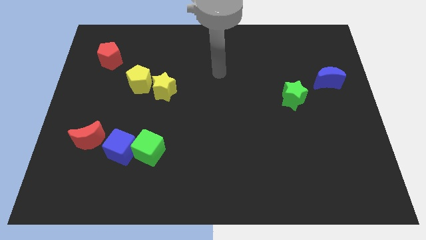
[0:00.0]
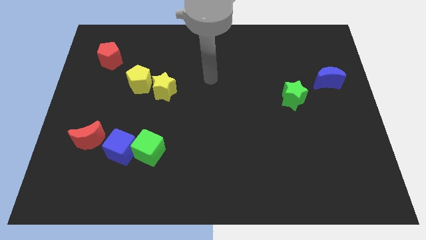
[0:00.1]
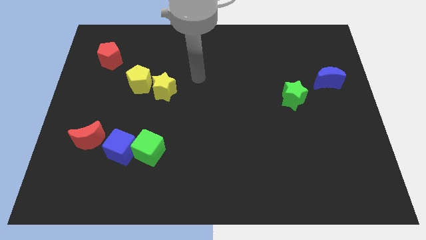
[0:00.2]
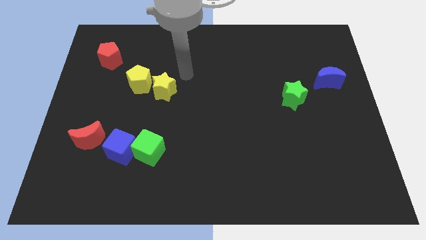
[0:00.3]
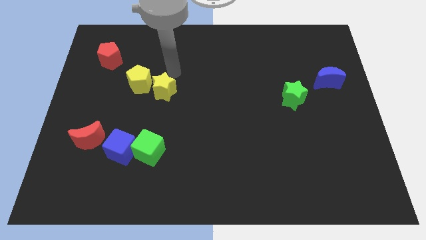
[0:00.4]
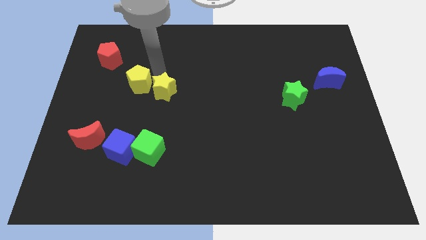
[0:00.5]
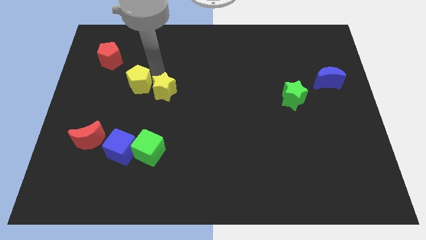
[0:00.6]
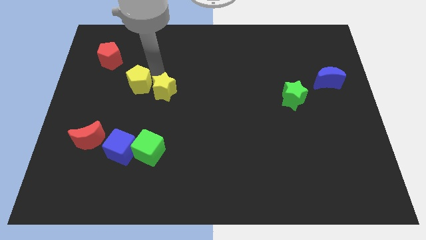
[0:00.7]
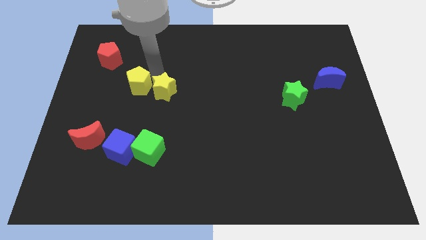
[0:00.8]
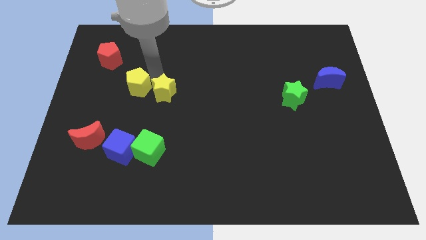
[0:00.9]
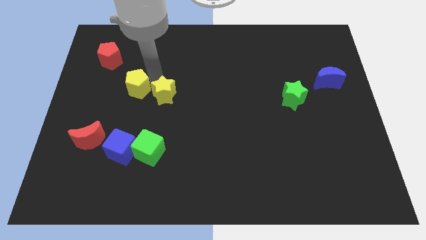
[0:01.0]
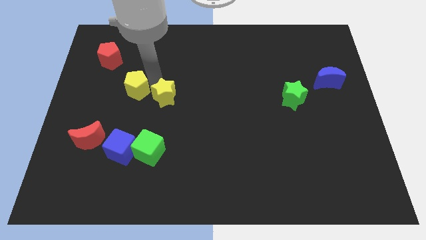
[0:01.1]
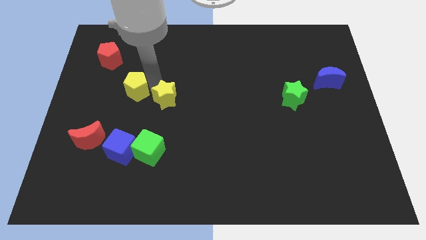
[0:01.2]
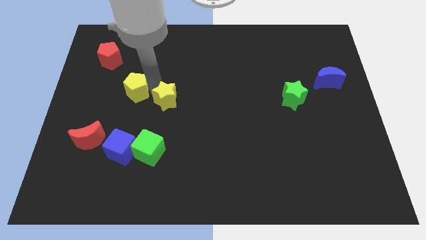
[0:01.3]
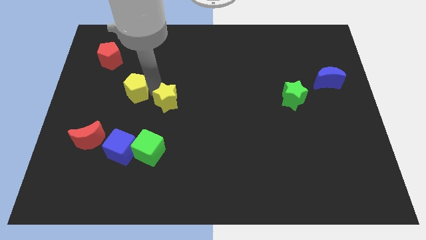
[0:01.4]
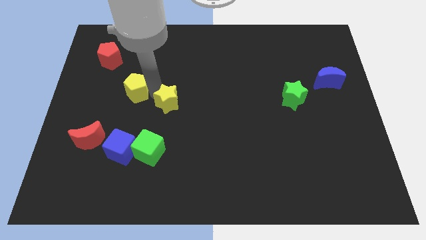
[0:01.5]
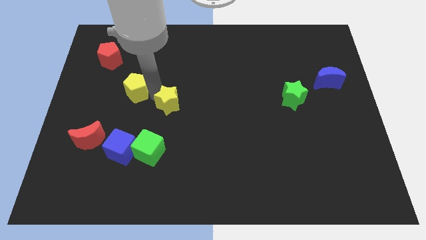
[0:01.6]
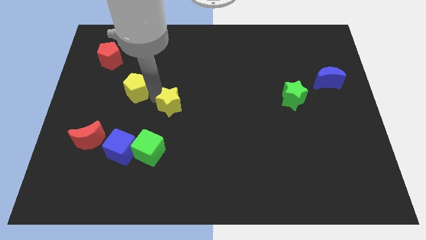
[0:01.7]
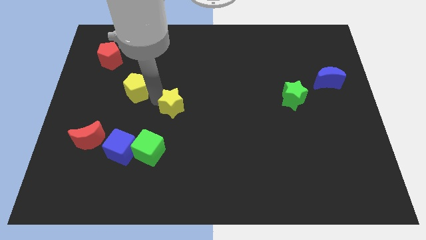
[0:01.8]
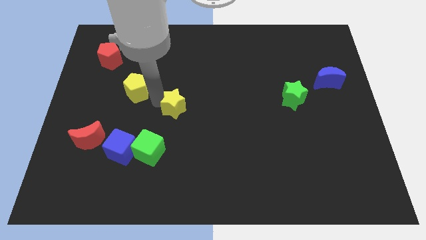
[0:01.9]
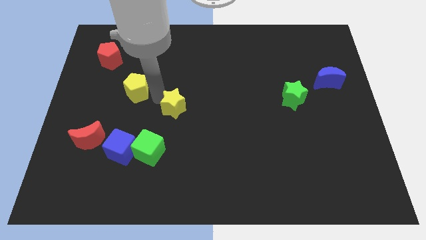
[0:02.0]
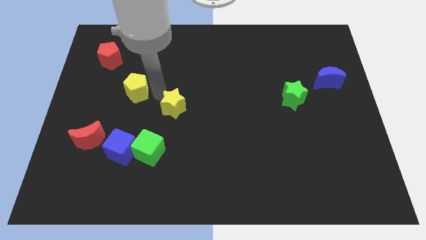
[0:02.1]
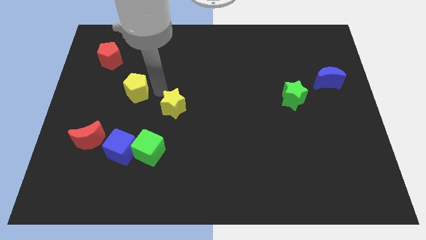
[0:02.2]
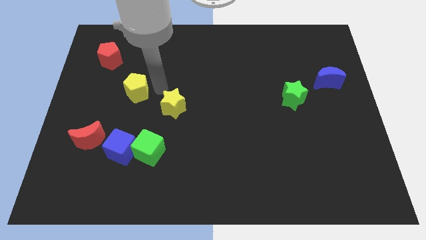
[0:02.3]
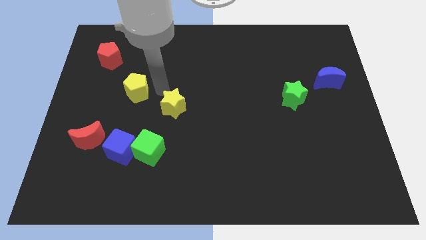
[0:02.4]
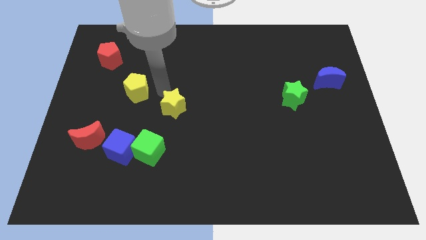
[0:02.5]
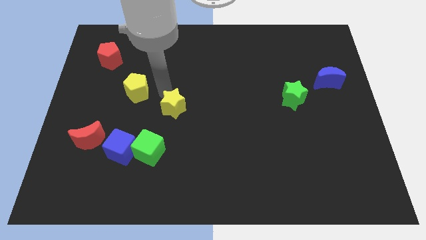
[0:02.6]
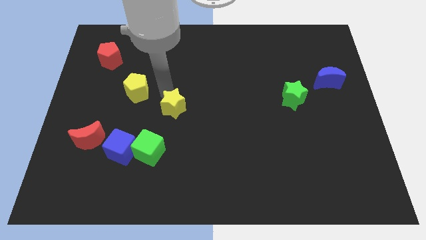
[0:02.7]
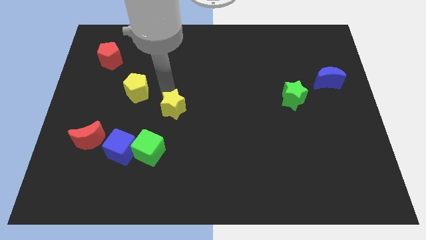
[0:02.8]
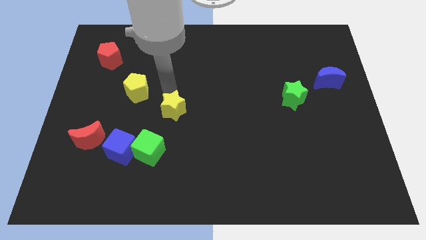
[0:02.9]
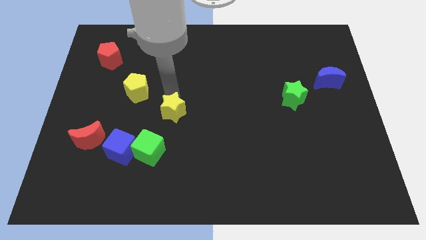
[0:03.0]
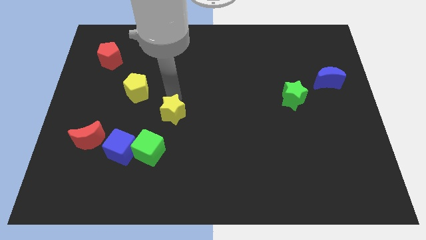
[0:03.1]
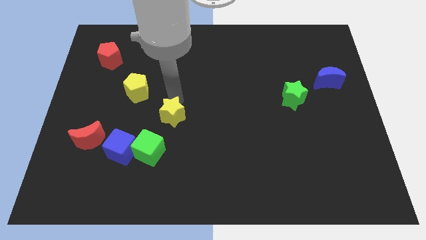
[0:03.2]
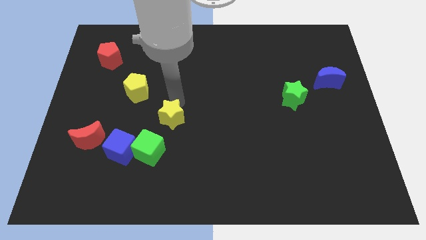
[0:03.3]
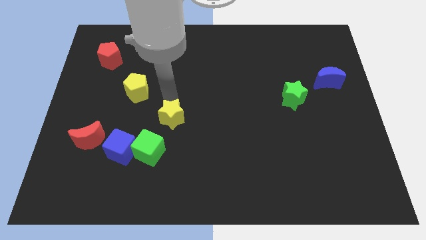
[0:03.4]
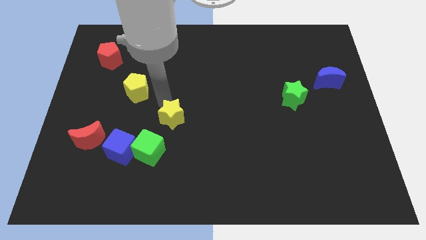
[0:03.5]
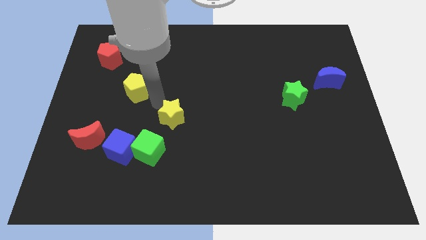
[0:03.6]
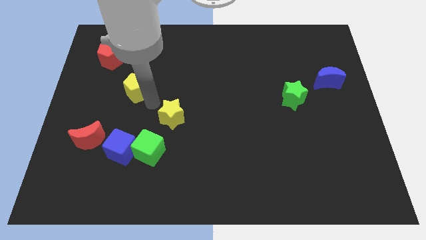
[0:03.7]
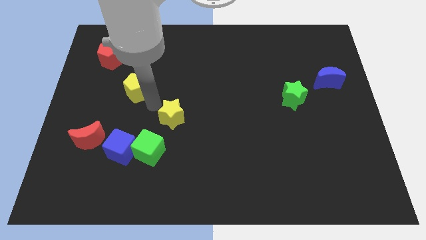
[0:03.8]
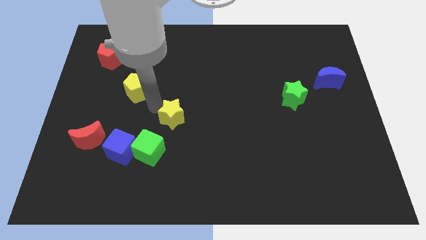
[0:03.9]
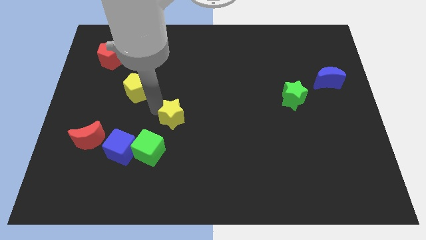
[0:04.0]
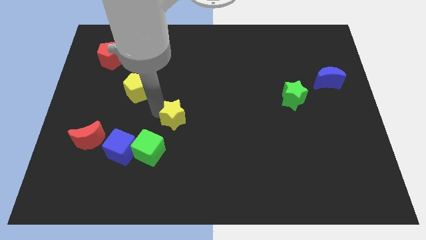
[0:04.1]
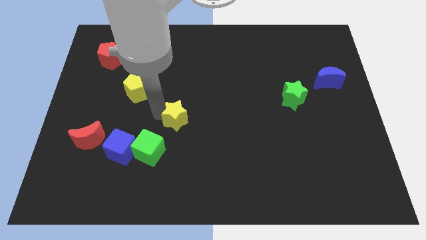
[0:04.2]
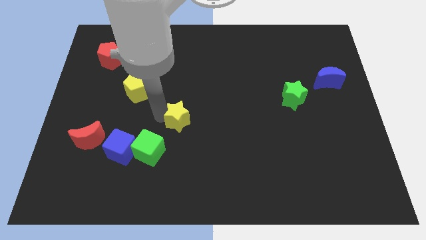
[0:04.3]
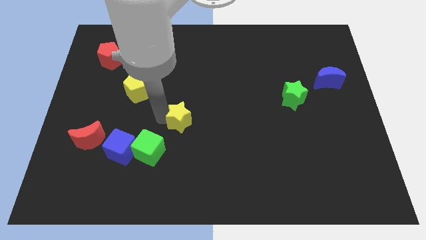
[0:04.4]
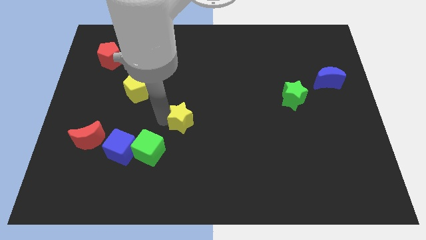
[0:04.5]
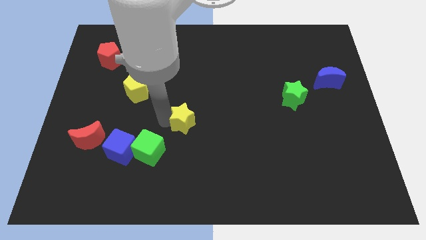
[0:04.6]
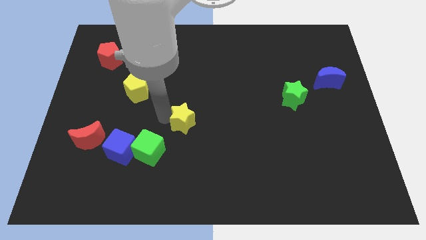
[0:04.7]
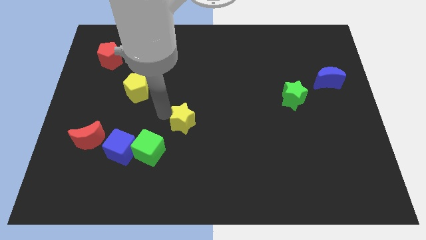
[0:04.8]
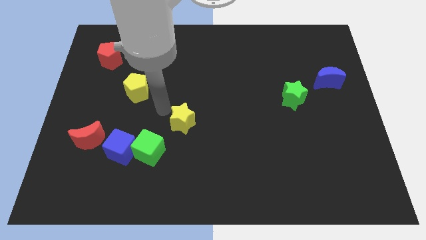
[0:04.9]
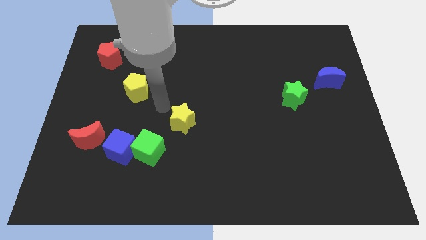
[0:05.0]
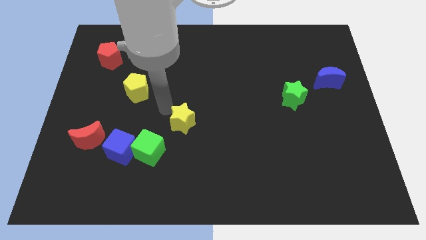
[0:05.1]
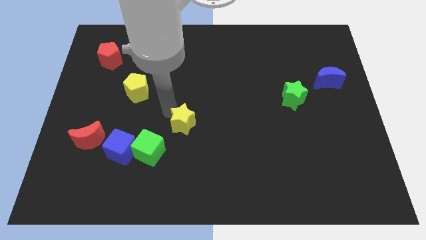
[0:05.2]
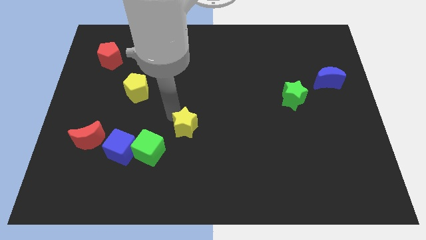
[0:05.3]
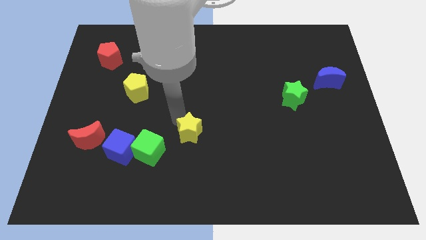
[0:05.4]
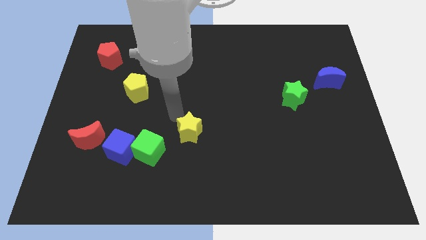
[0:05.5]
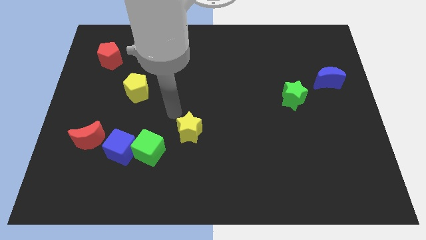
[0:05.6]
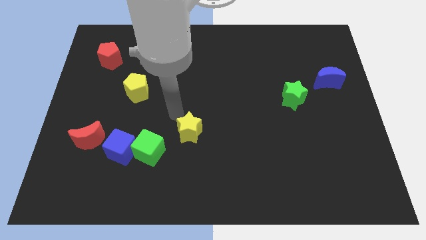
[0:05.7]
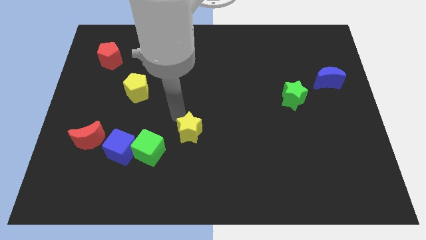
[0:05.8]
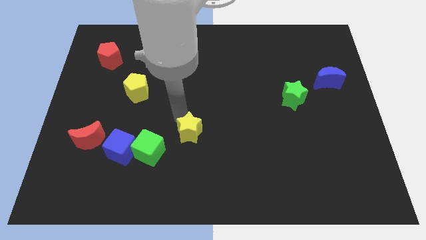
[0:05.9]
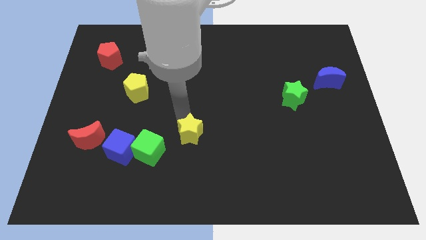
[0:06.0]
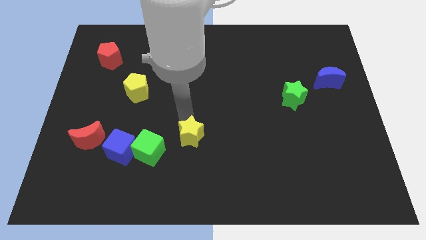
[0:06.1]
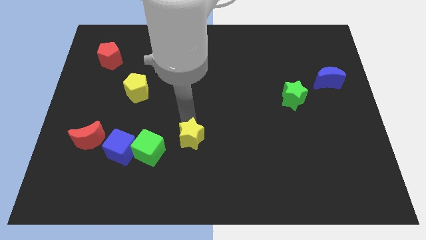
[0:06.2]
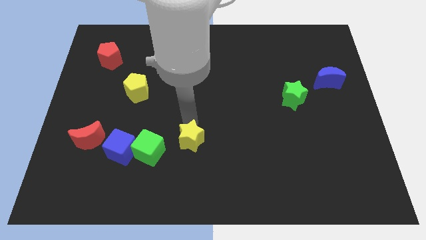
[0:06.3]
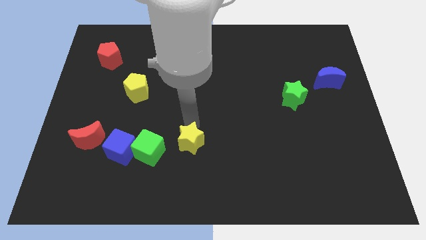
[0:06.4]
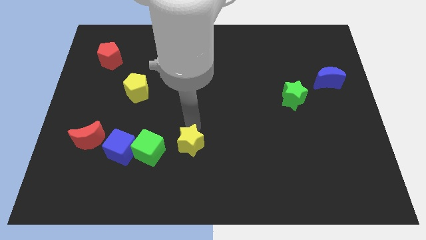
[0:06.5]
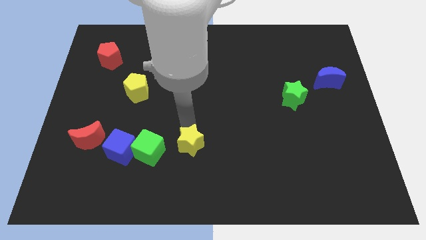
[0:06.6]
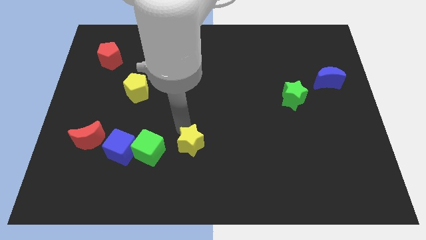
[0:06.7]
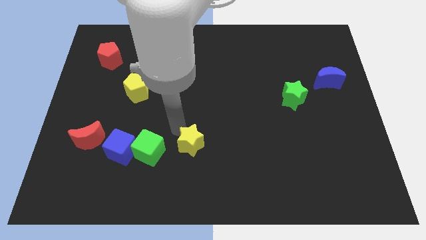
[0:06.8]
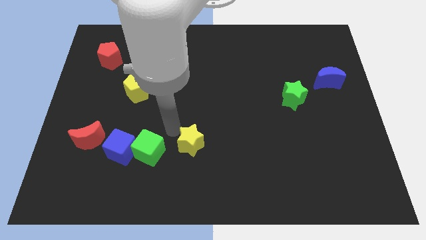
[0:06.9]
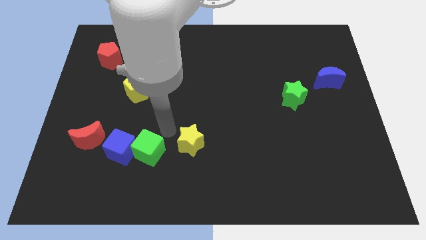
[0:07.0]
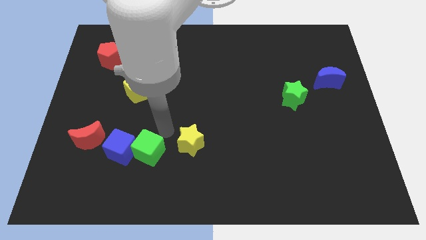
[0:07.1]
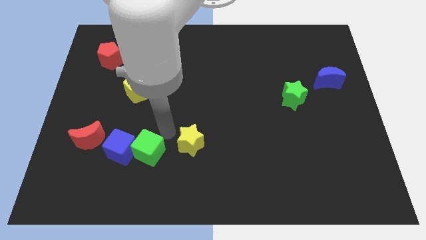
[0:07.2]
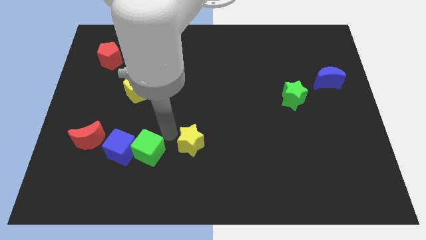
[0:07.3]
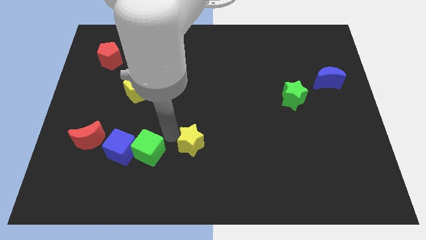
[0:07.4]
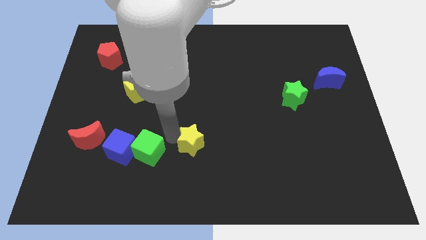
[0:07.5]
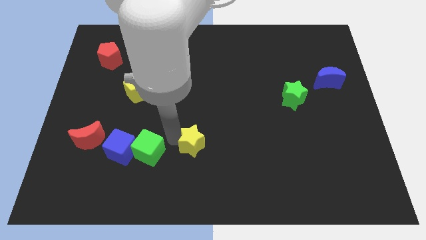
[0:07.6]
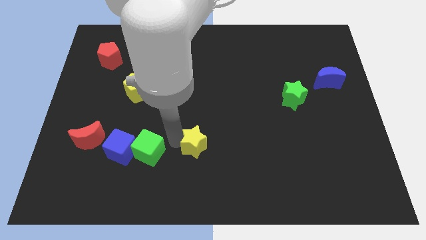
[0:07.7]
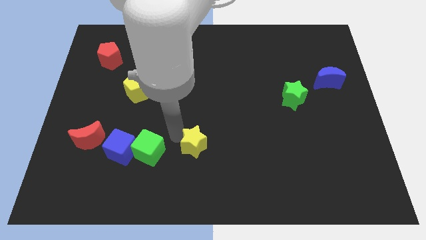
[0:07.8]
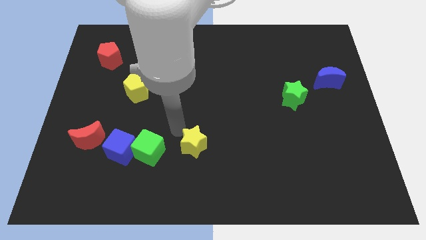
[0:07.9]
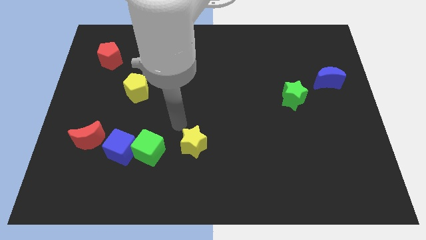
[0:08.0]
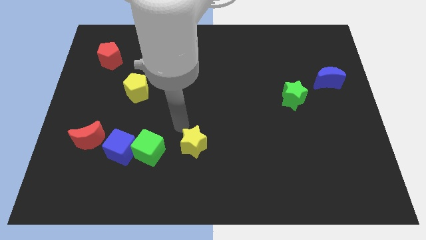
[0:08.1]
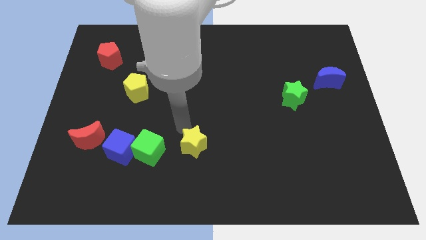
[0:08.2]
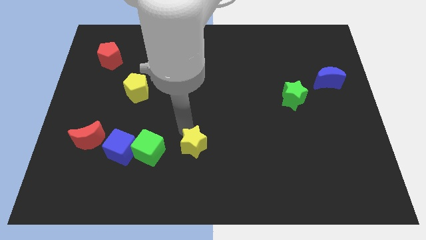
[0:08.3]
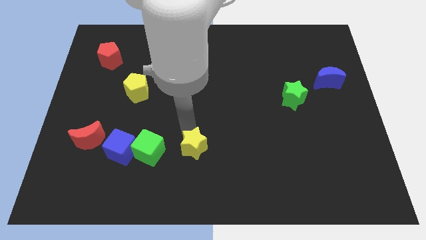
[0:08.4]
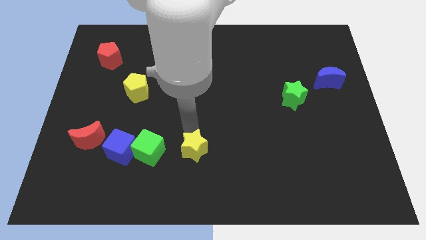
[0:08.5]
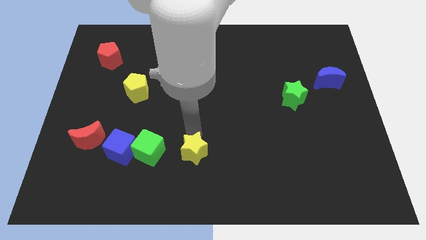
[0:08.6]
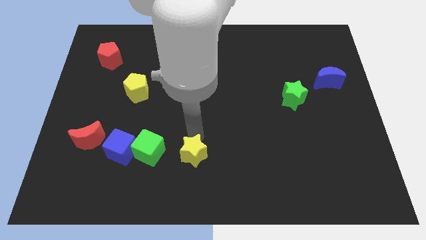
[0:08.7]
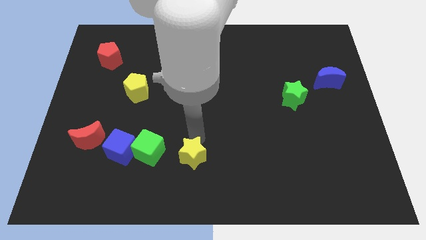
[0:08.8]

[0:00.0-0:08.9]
slide the yellow star to the bottom side
